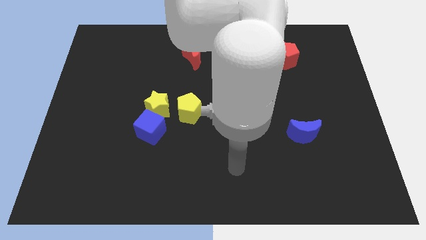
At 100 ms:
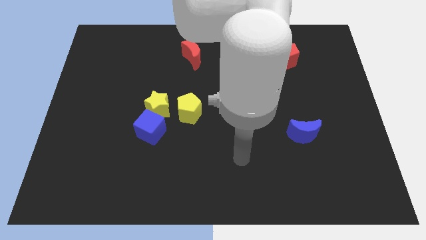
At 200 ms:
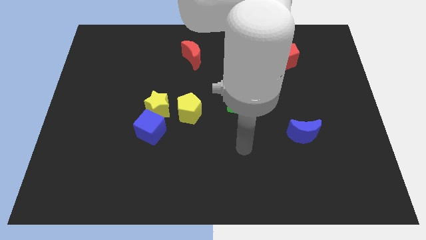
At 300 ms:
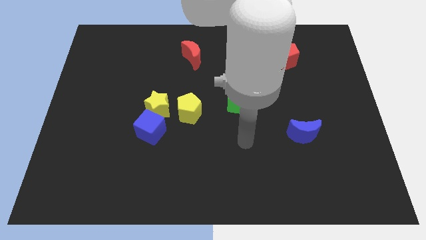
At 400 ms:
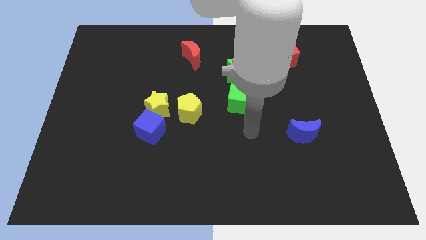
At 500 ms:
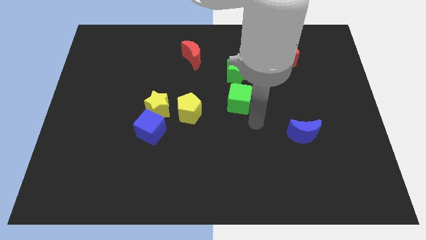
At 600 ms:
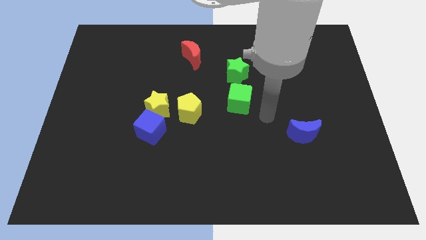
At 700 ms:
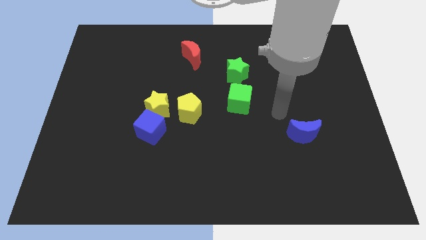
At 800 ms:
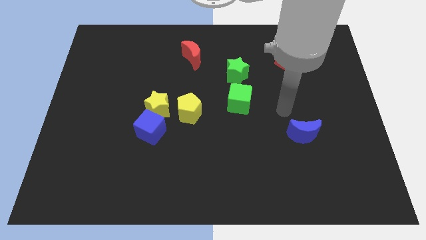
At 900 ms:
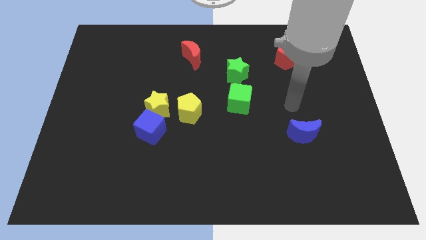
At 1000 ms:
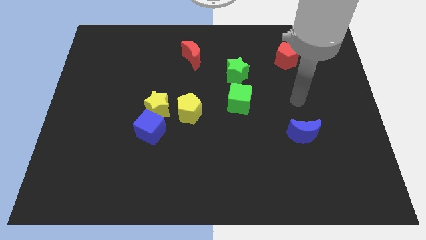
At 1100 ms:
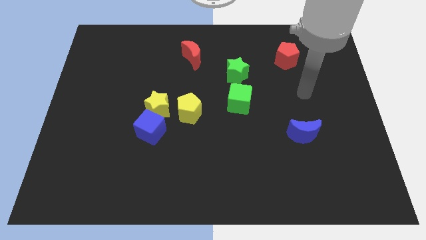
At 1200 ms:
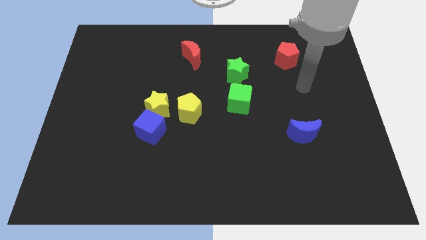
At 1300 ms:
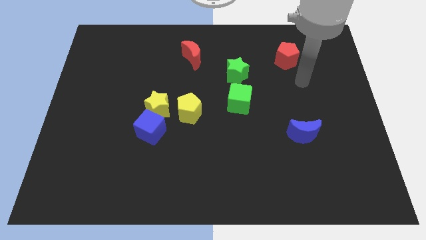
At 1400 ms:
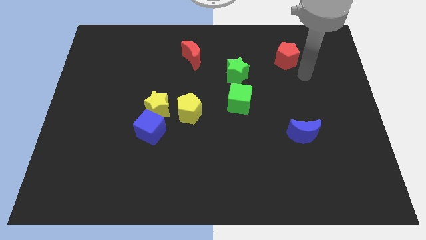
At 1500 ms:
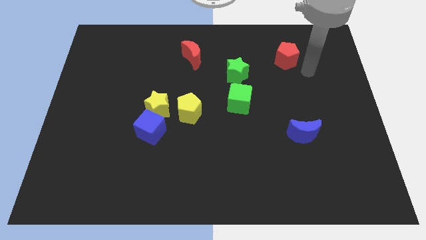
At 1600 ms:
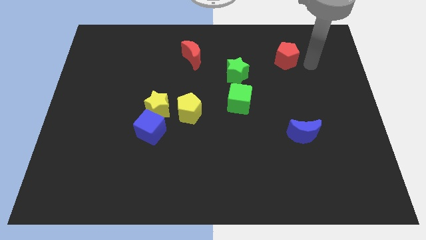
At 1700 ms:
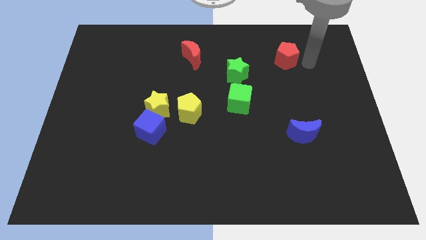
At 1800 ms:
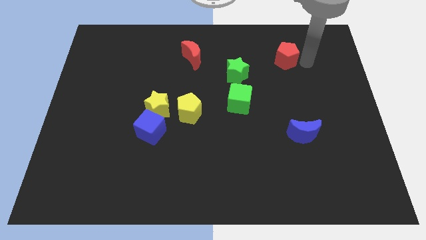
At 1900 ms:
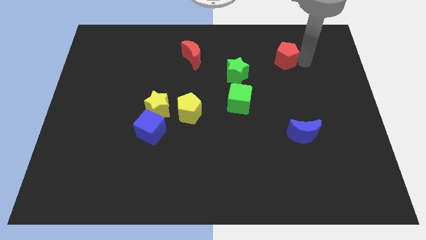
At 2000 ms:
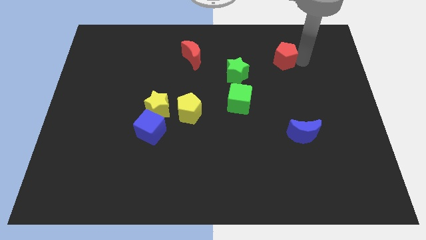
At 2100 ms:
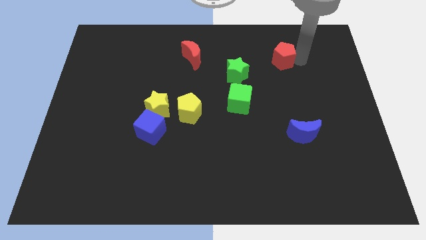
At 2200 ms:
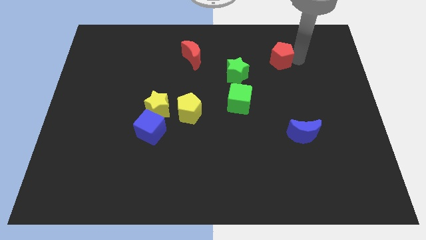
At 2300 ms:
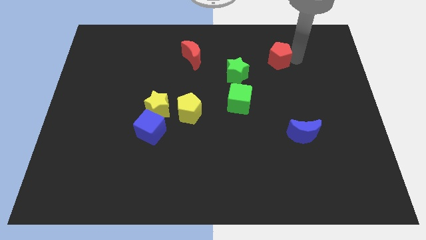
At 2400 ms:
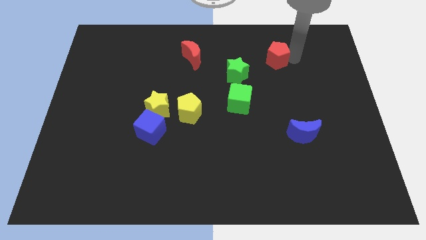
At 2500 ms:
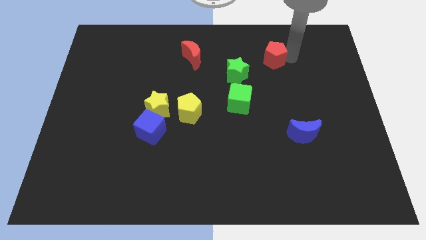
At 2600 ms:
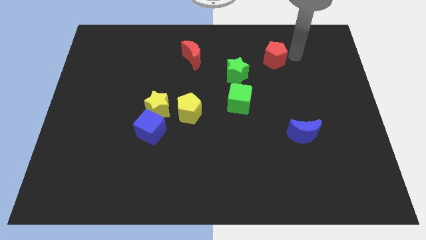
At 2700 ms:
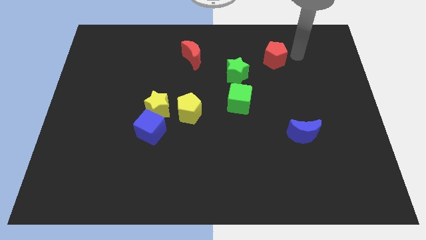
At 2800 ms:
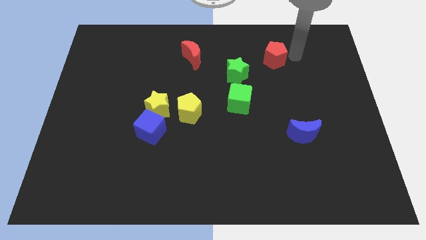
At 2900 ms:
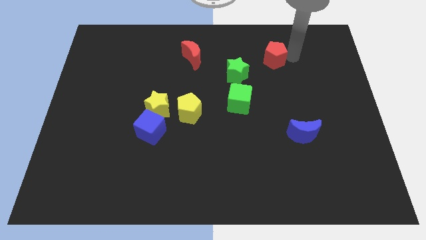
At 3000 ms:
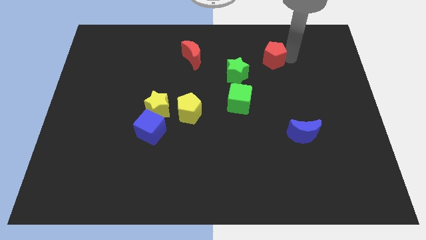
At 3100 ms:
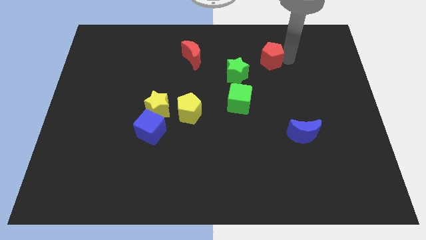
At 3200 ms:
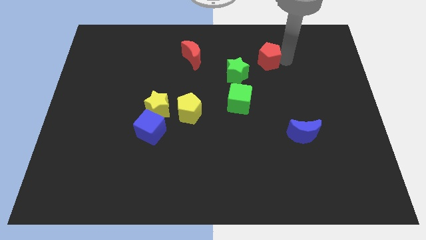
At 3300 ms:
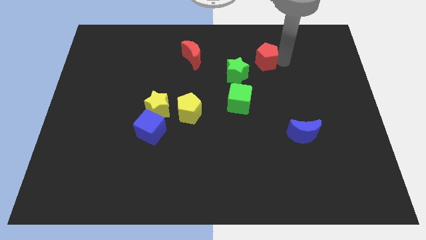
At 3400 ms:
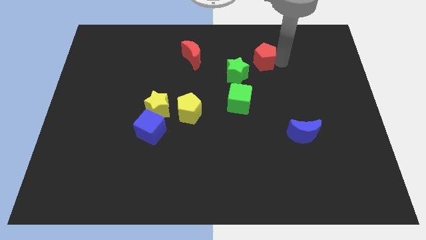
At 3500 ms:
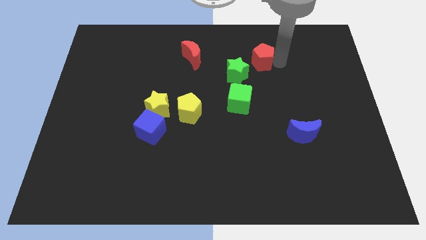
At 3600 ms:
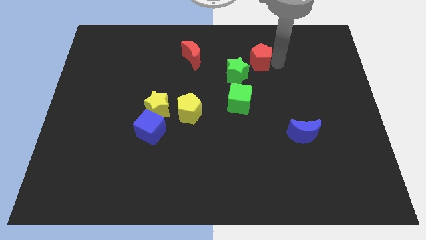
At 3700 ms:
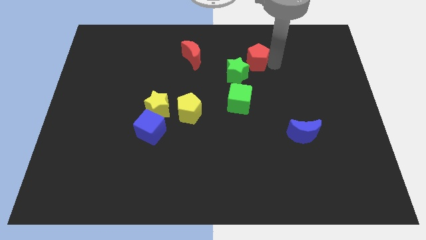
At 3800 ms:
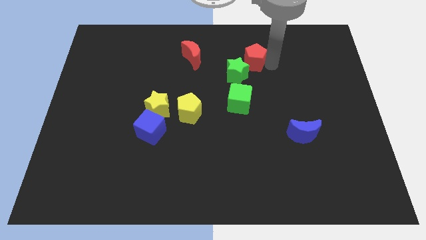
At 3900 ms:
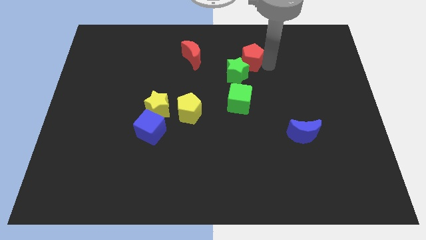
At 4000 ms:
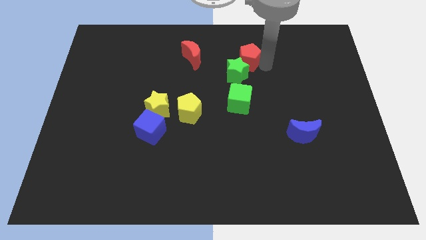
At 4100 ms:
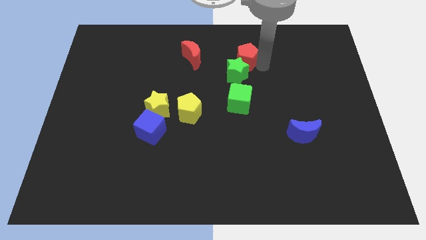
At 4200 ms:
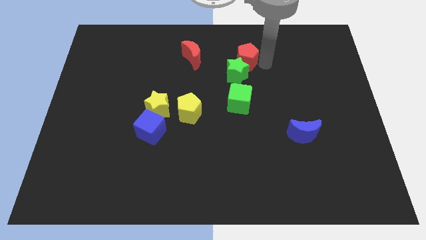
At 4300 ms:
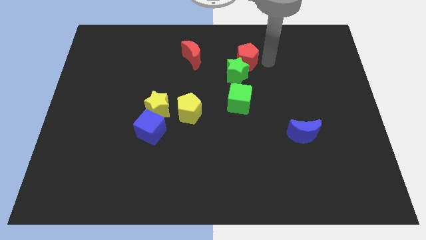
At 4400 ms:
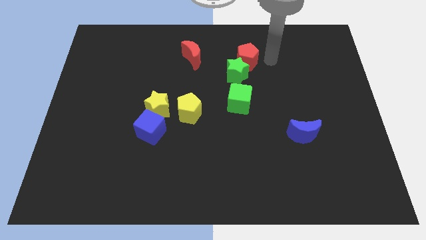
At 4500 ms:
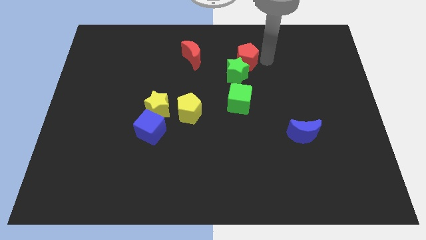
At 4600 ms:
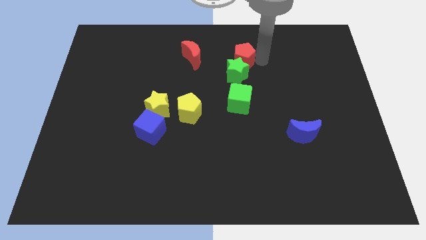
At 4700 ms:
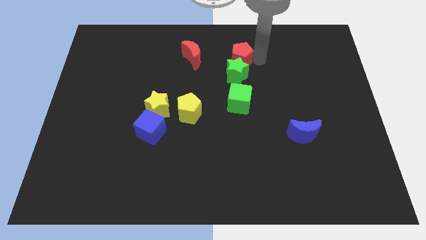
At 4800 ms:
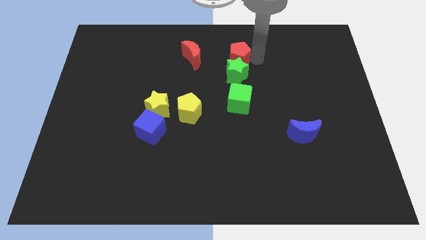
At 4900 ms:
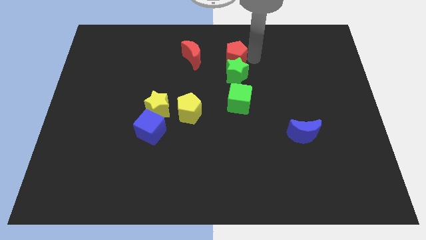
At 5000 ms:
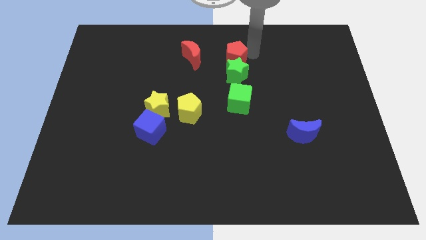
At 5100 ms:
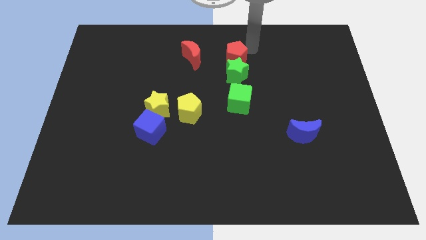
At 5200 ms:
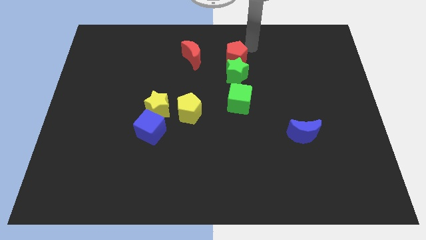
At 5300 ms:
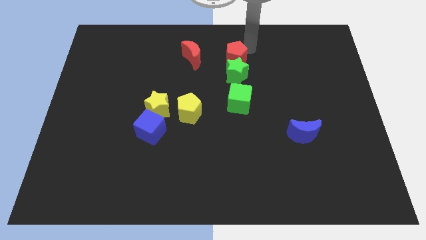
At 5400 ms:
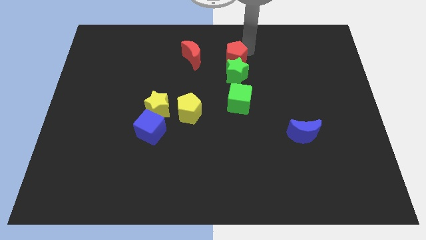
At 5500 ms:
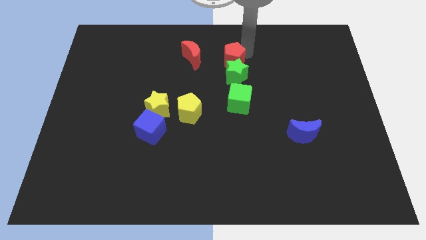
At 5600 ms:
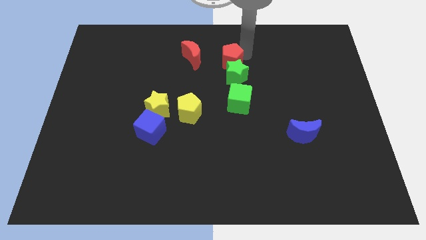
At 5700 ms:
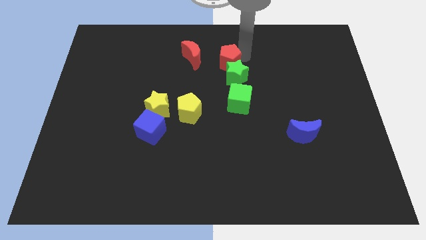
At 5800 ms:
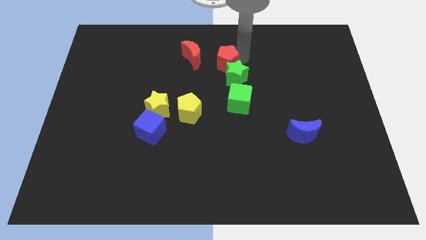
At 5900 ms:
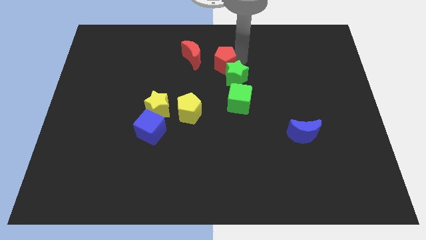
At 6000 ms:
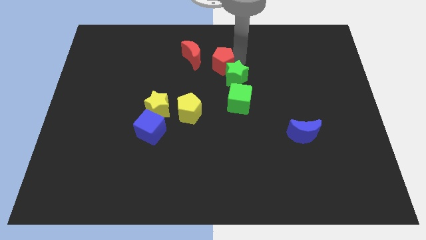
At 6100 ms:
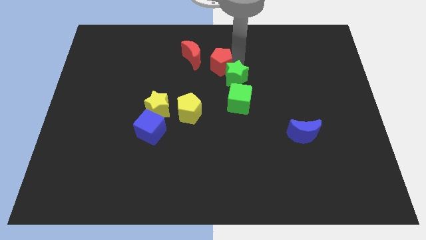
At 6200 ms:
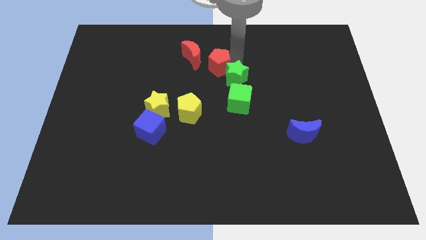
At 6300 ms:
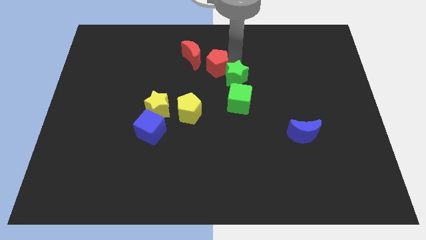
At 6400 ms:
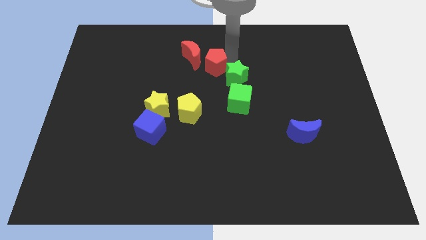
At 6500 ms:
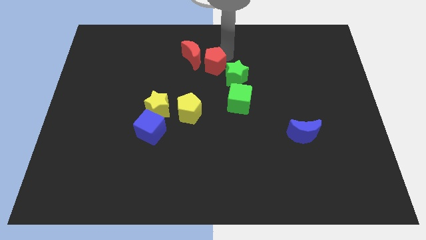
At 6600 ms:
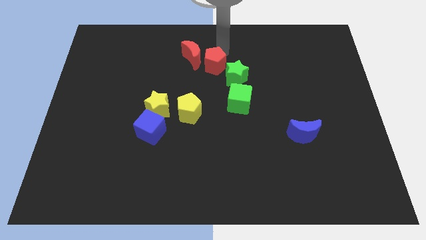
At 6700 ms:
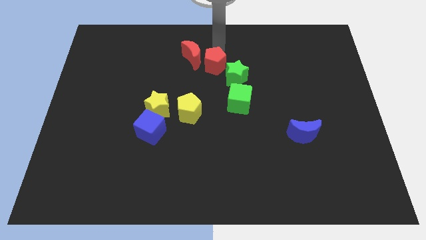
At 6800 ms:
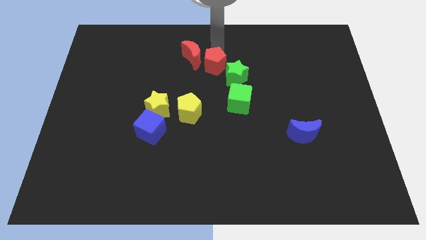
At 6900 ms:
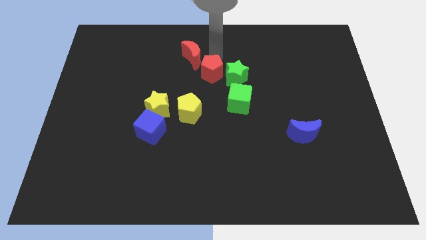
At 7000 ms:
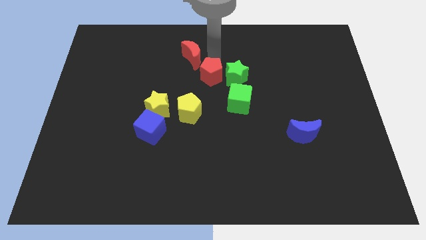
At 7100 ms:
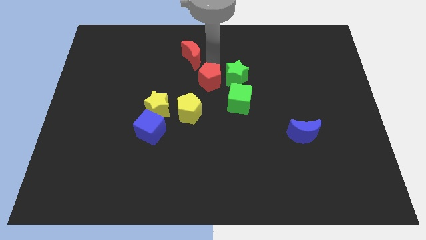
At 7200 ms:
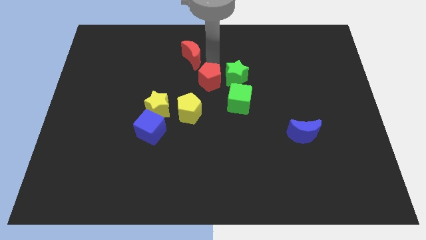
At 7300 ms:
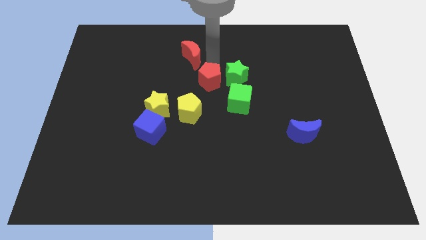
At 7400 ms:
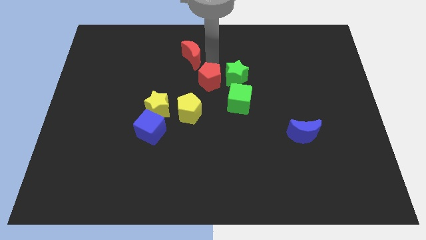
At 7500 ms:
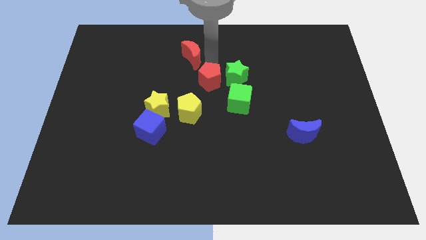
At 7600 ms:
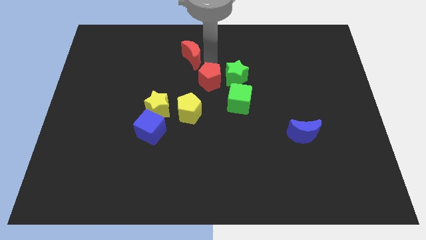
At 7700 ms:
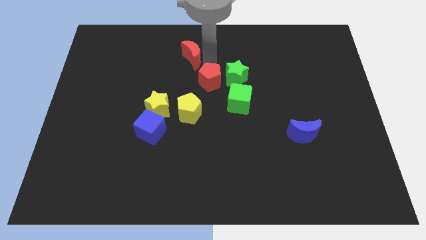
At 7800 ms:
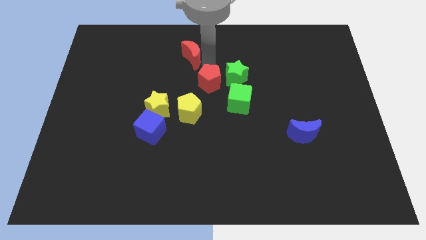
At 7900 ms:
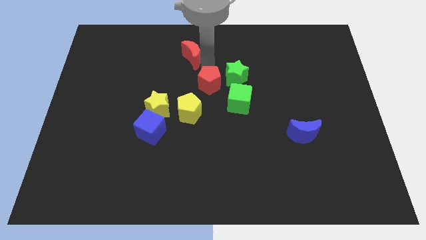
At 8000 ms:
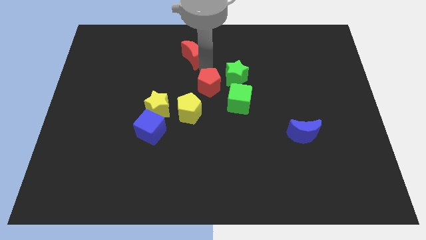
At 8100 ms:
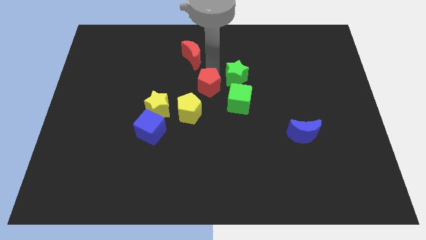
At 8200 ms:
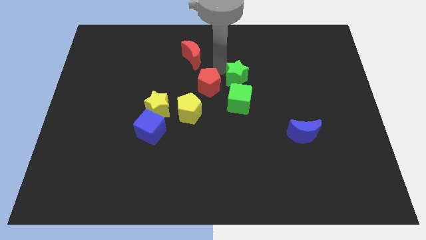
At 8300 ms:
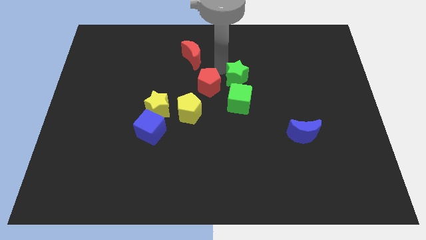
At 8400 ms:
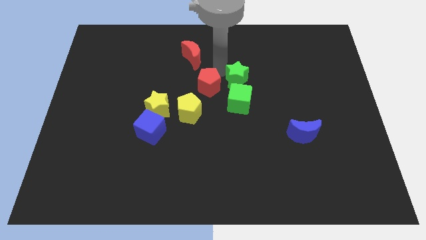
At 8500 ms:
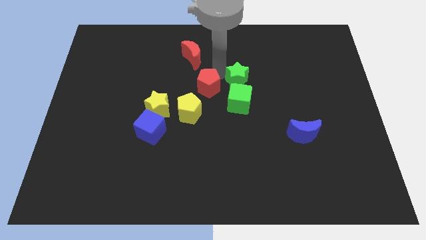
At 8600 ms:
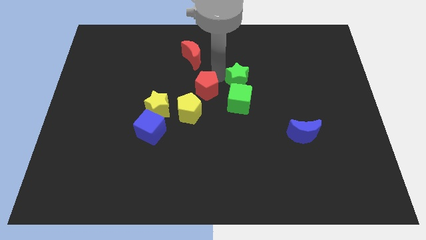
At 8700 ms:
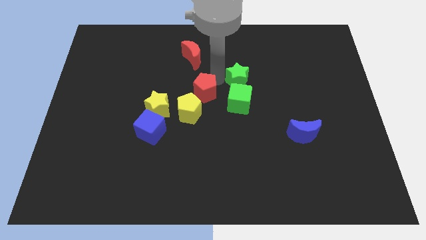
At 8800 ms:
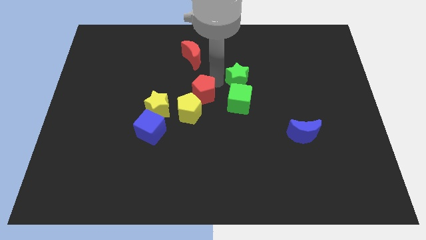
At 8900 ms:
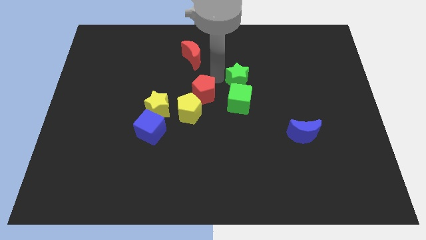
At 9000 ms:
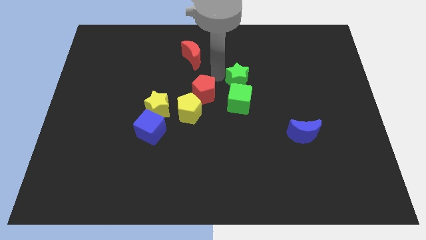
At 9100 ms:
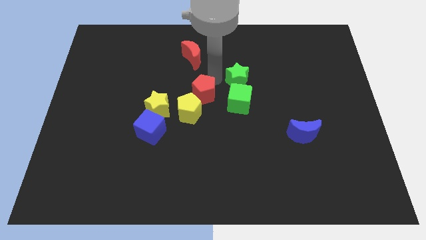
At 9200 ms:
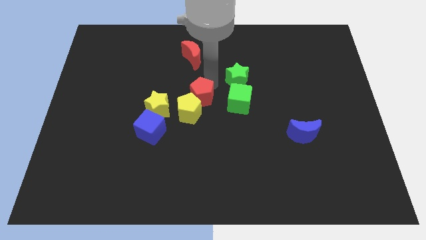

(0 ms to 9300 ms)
slide the red pentagon close to the yellow pentagon
